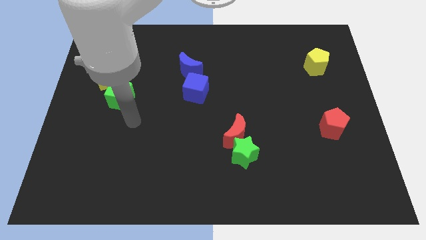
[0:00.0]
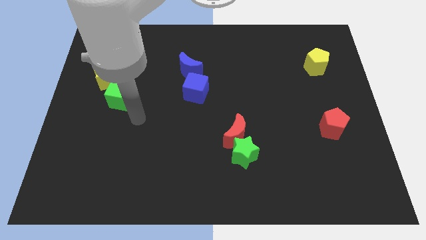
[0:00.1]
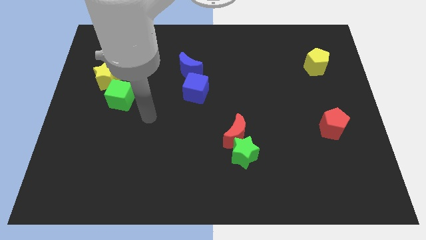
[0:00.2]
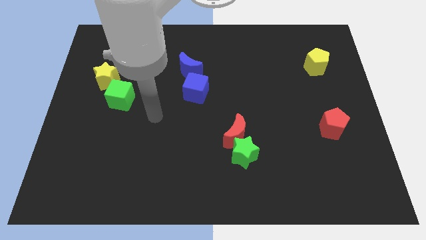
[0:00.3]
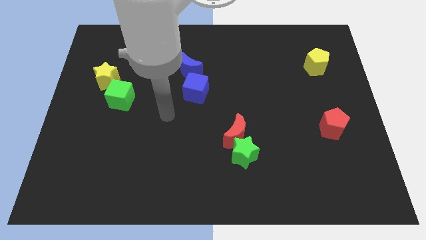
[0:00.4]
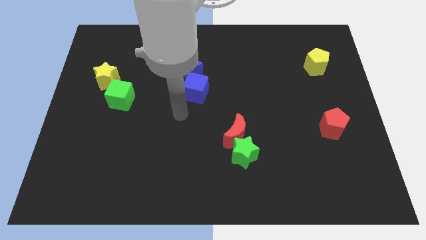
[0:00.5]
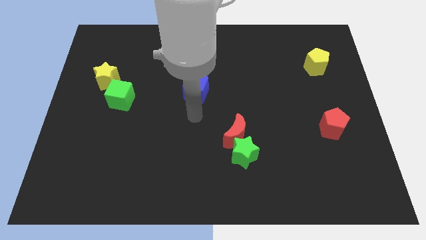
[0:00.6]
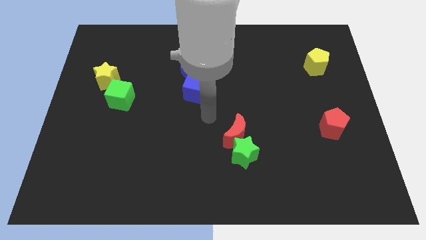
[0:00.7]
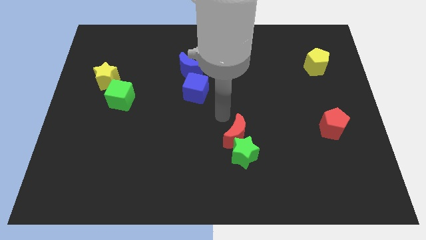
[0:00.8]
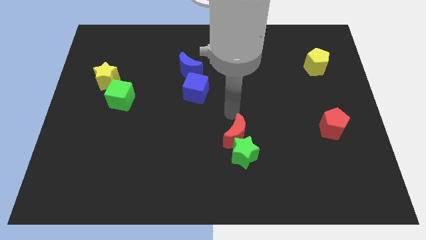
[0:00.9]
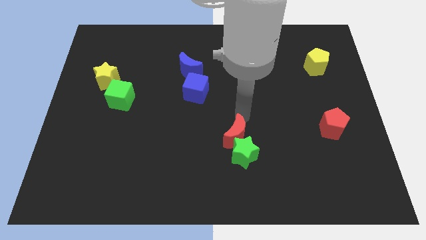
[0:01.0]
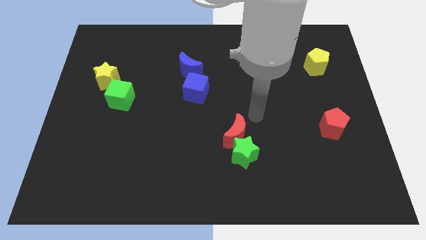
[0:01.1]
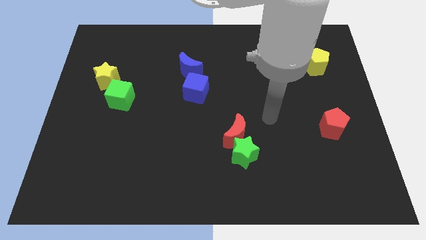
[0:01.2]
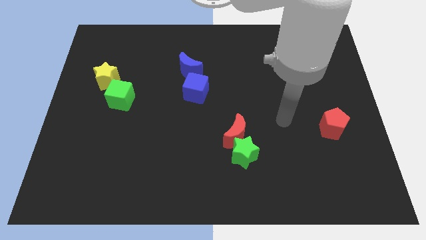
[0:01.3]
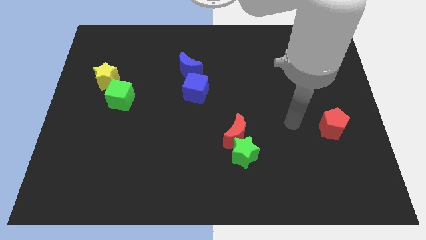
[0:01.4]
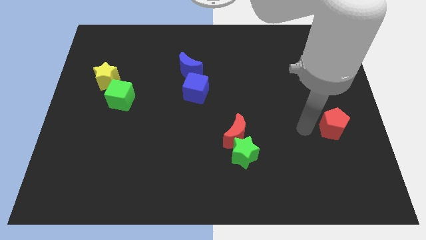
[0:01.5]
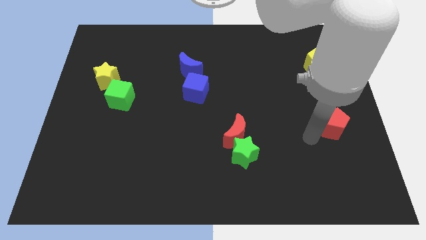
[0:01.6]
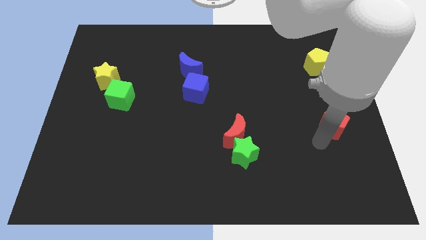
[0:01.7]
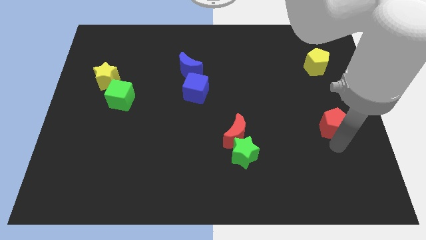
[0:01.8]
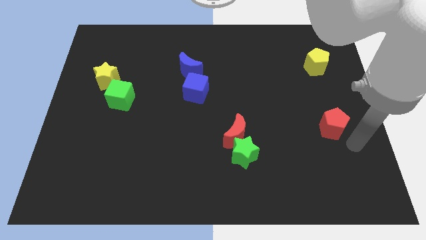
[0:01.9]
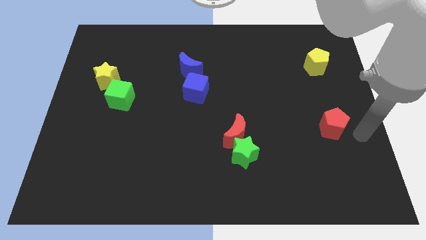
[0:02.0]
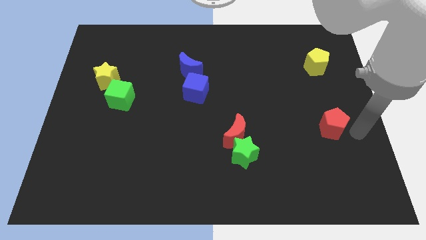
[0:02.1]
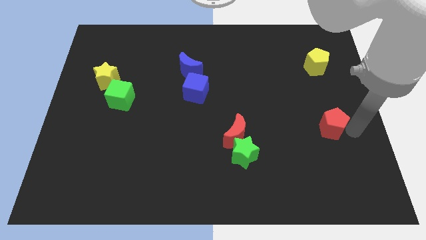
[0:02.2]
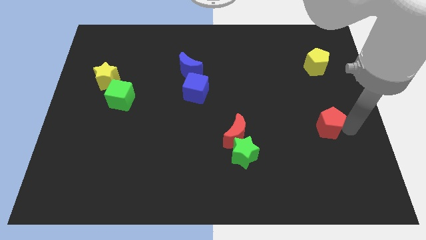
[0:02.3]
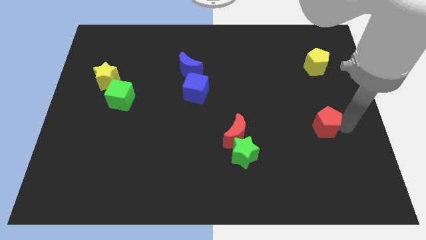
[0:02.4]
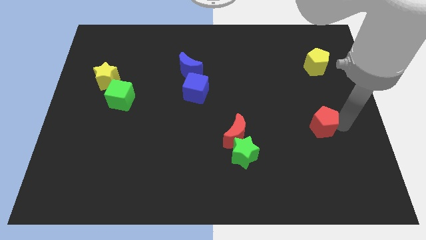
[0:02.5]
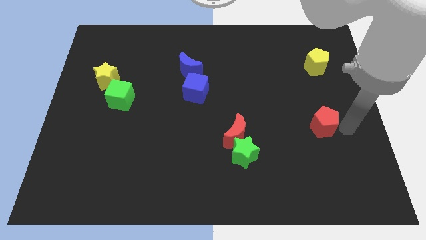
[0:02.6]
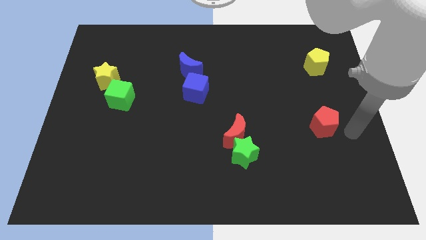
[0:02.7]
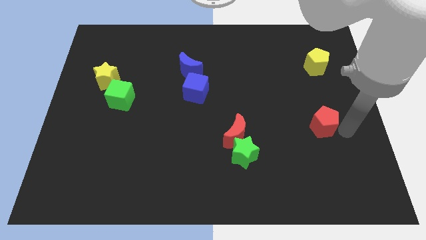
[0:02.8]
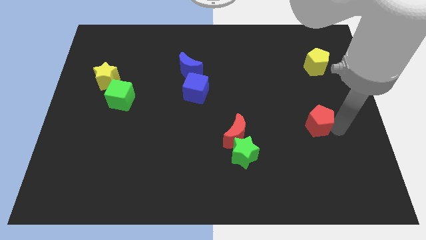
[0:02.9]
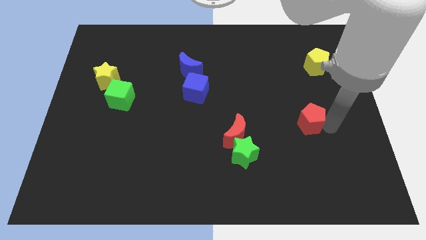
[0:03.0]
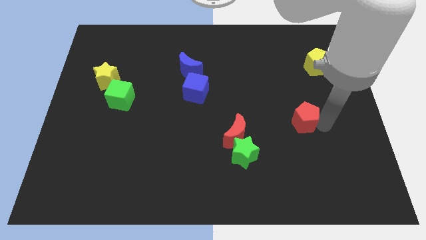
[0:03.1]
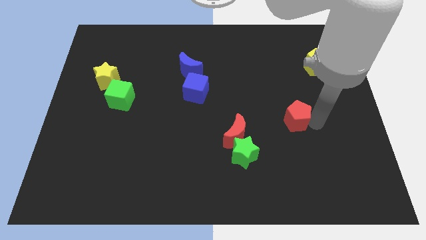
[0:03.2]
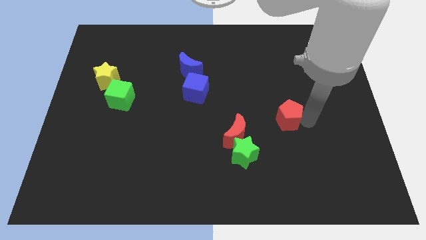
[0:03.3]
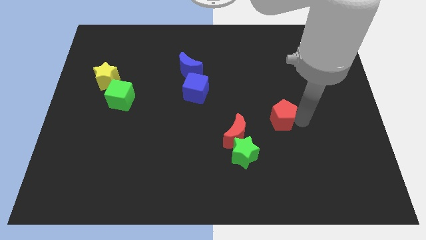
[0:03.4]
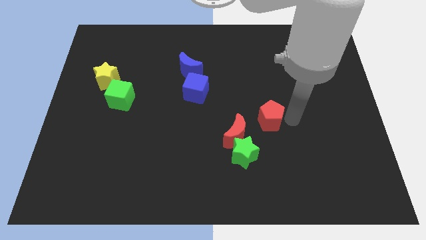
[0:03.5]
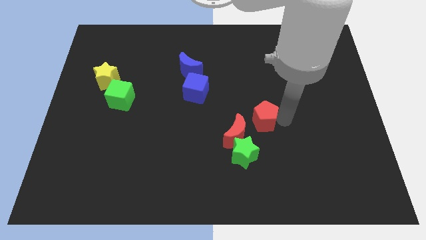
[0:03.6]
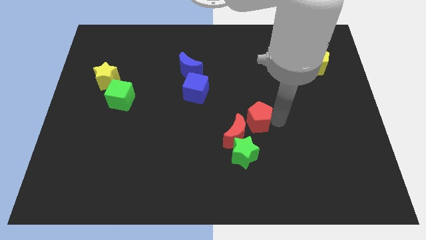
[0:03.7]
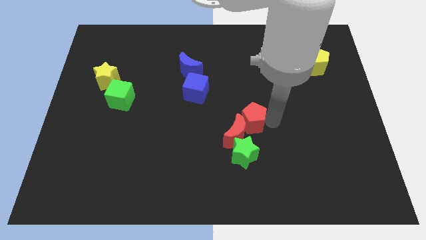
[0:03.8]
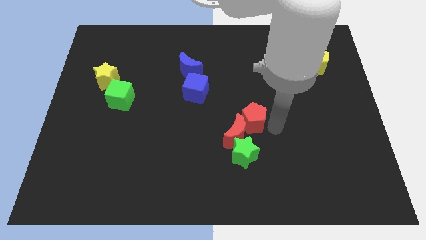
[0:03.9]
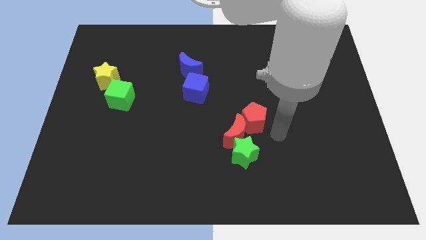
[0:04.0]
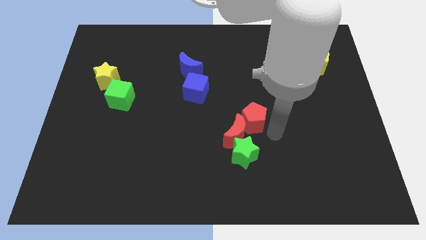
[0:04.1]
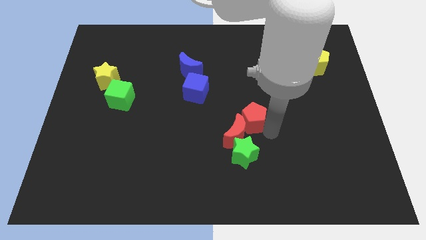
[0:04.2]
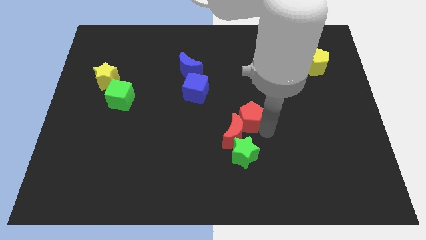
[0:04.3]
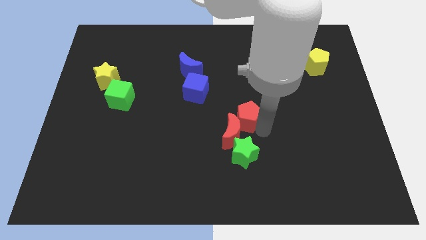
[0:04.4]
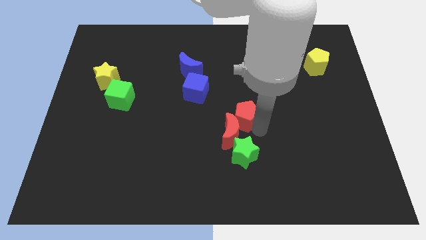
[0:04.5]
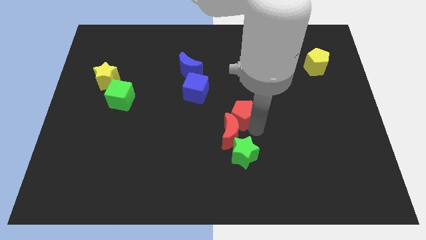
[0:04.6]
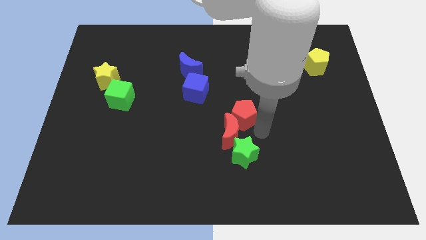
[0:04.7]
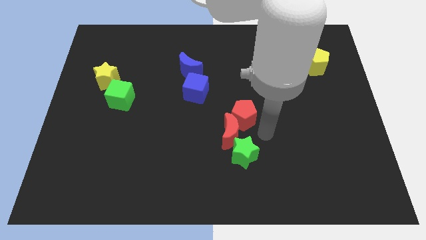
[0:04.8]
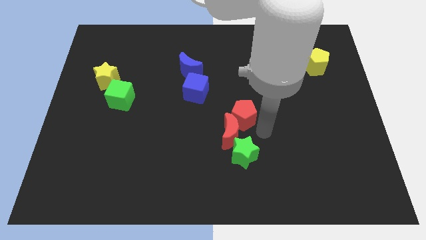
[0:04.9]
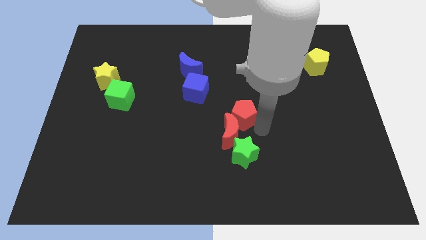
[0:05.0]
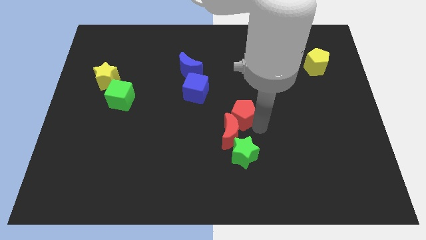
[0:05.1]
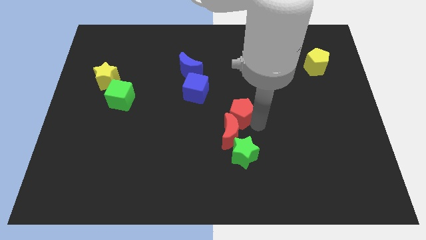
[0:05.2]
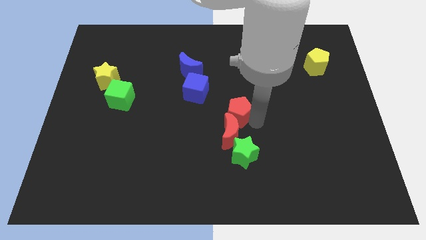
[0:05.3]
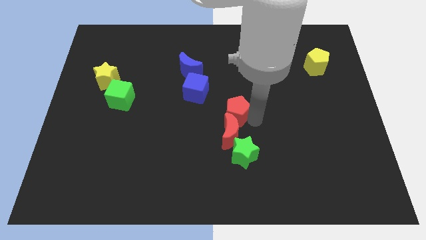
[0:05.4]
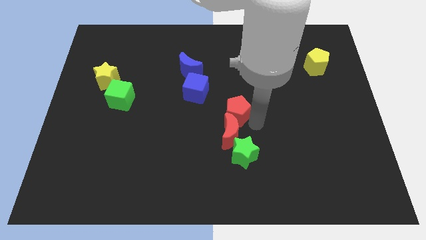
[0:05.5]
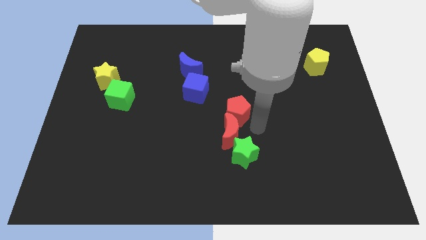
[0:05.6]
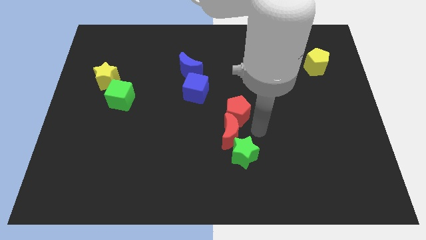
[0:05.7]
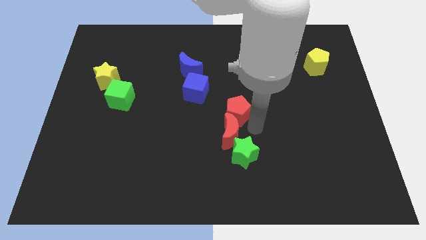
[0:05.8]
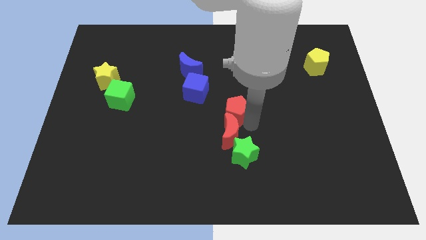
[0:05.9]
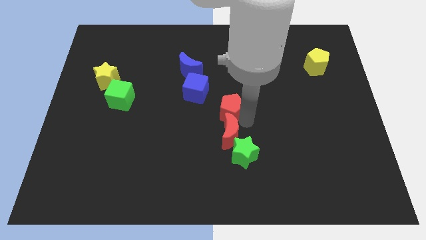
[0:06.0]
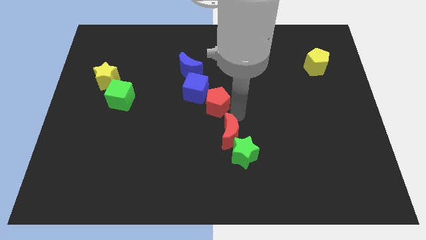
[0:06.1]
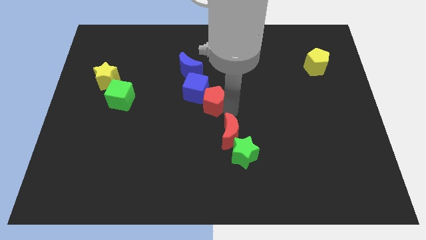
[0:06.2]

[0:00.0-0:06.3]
push the red pentagon to the blue cube

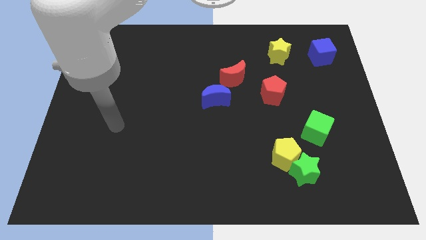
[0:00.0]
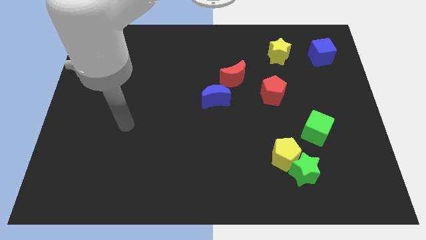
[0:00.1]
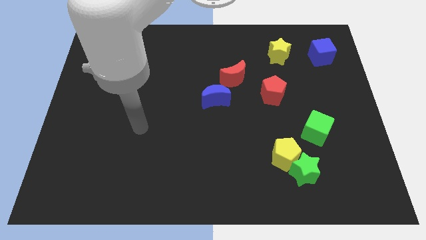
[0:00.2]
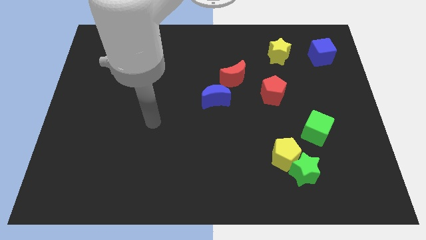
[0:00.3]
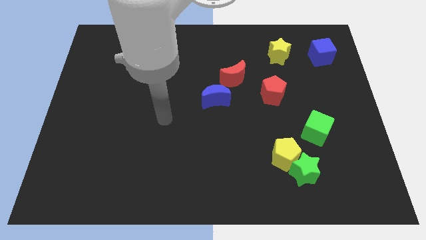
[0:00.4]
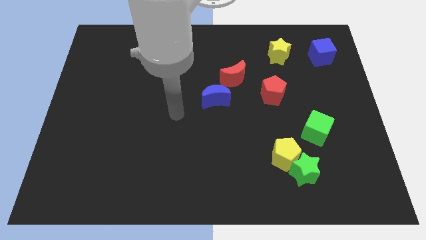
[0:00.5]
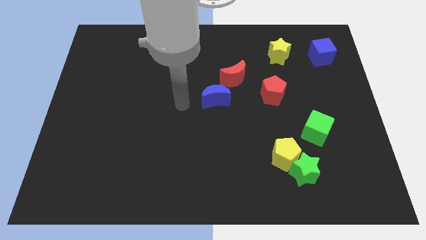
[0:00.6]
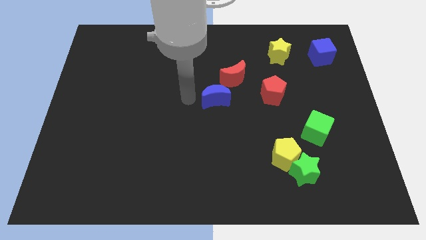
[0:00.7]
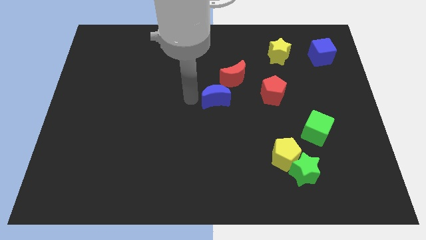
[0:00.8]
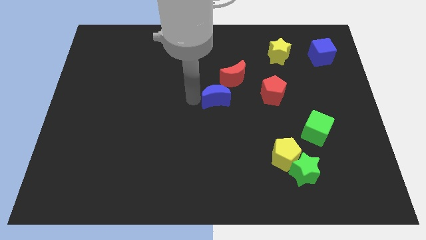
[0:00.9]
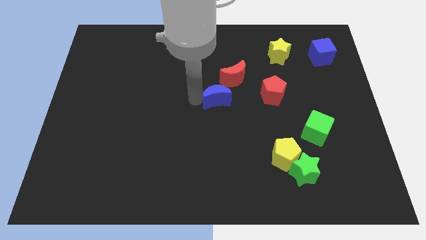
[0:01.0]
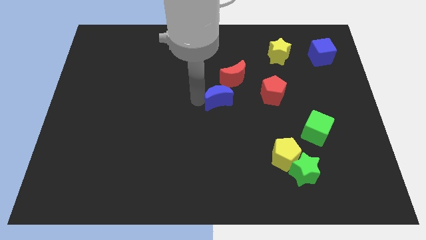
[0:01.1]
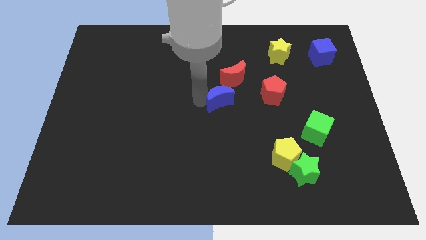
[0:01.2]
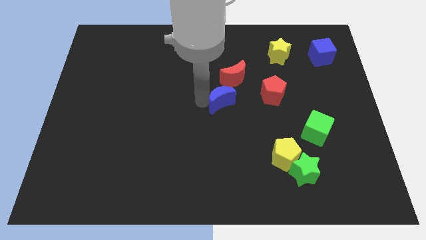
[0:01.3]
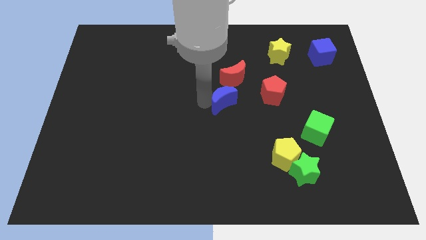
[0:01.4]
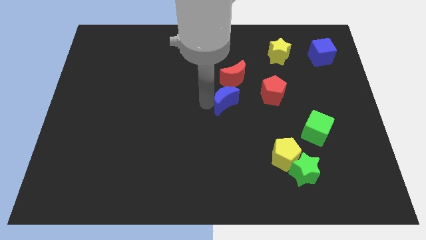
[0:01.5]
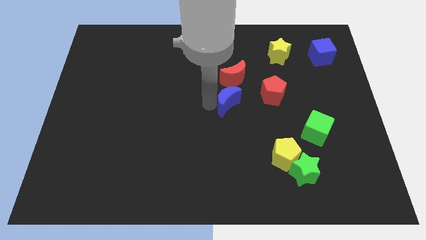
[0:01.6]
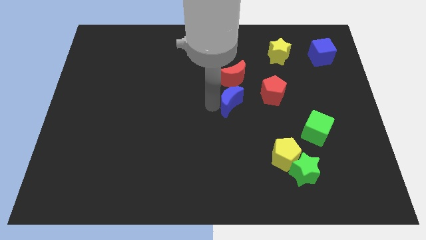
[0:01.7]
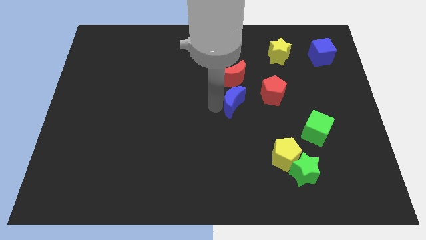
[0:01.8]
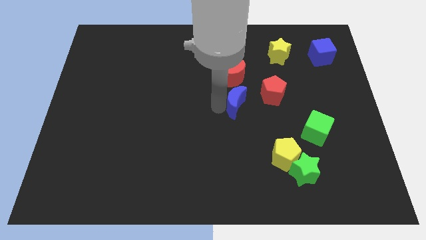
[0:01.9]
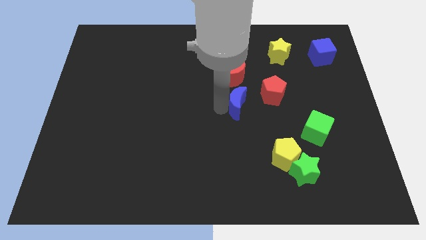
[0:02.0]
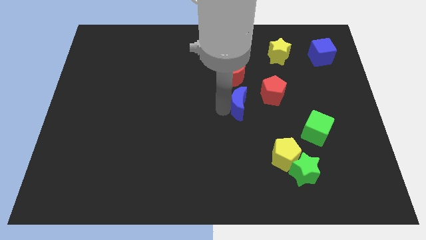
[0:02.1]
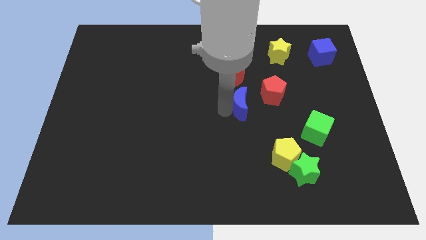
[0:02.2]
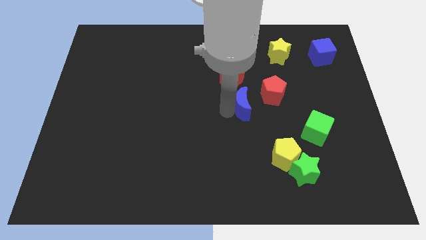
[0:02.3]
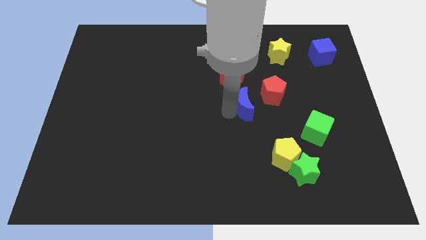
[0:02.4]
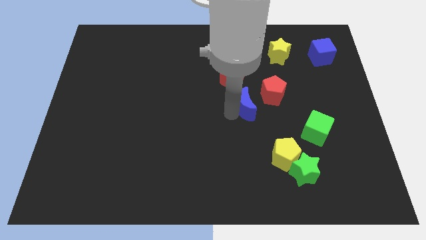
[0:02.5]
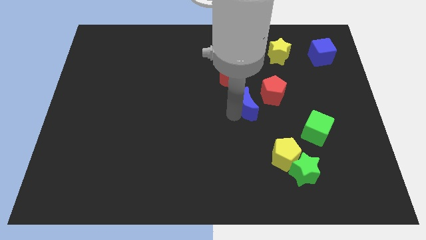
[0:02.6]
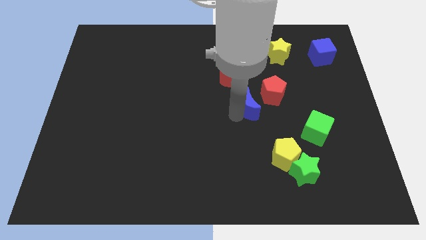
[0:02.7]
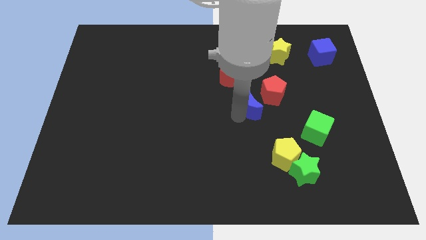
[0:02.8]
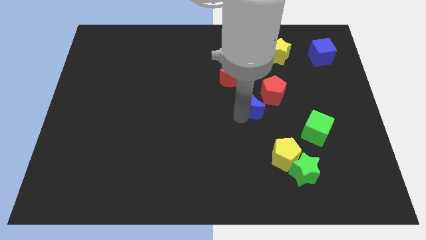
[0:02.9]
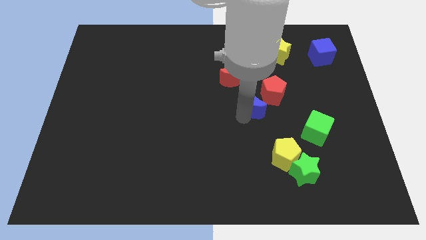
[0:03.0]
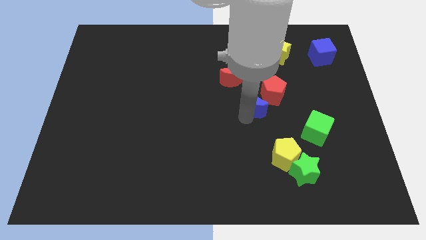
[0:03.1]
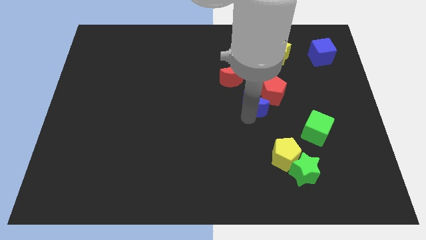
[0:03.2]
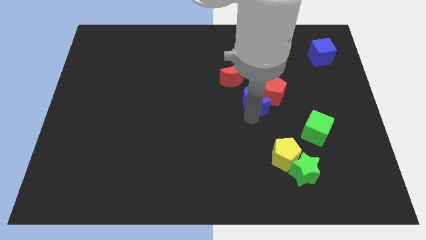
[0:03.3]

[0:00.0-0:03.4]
move the blue moon towards the red pentagon
